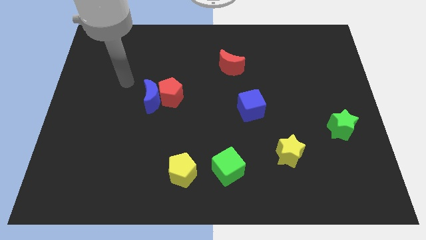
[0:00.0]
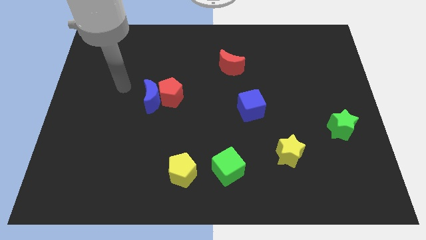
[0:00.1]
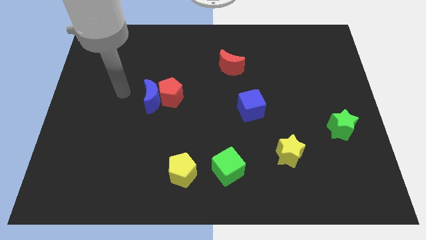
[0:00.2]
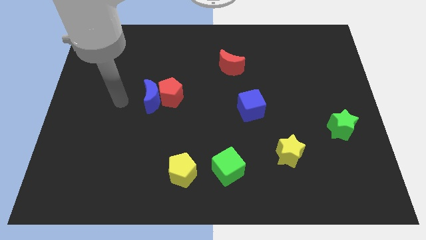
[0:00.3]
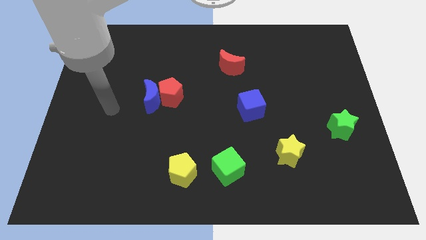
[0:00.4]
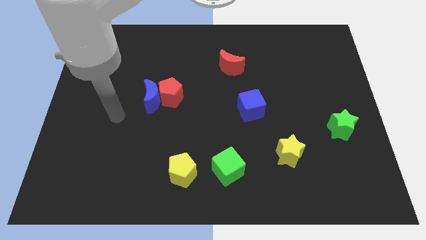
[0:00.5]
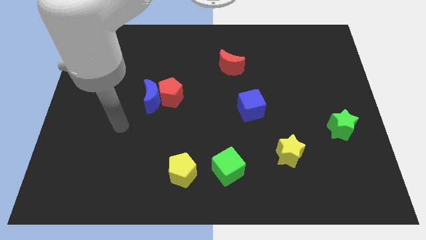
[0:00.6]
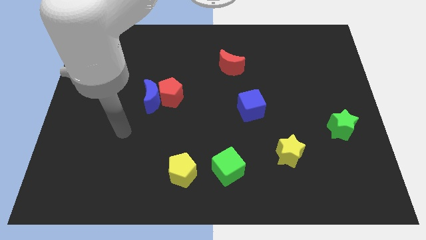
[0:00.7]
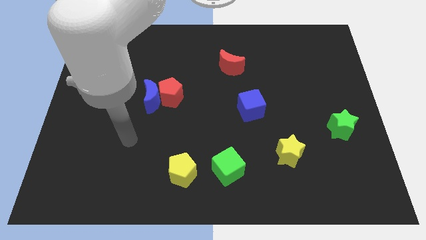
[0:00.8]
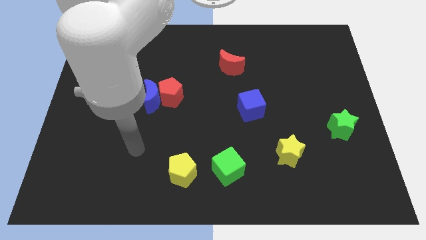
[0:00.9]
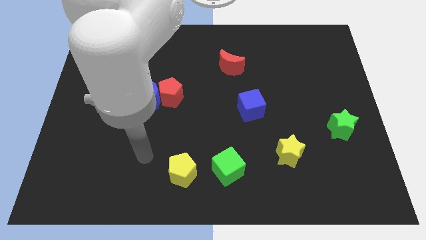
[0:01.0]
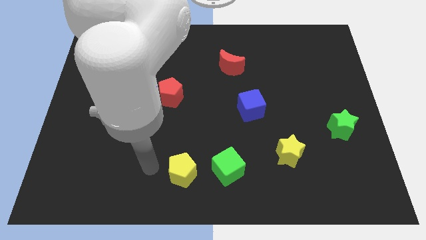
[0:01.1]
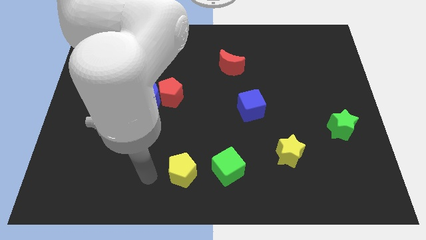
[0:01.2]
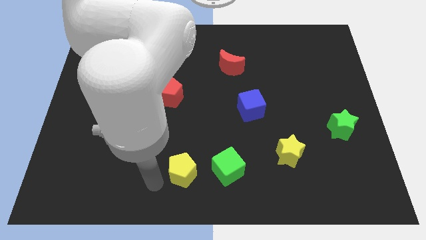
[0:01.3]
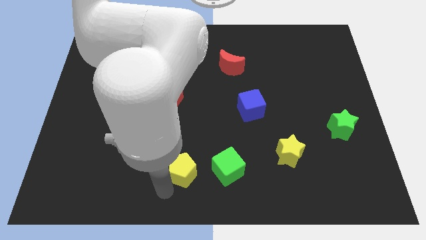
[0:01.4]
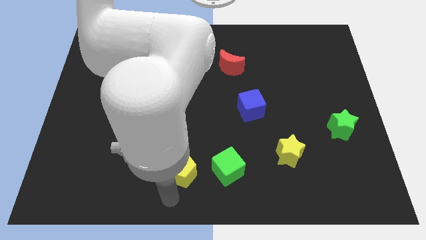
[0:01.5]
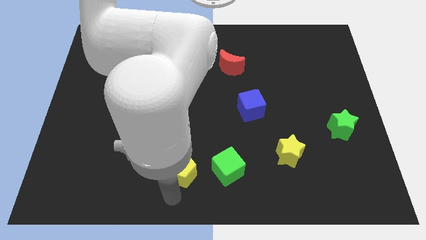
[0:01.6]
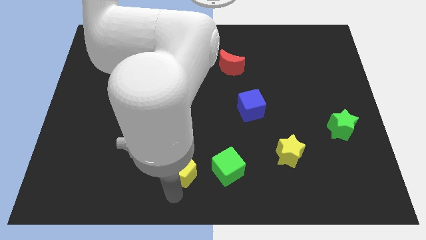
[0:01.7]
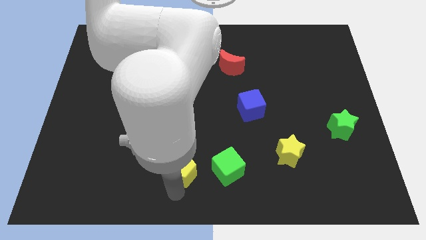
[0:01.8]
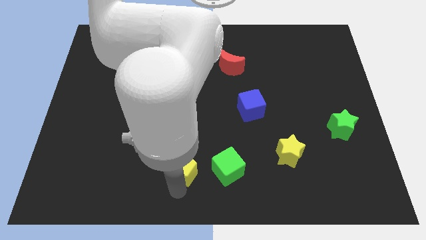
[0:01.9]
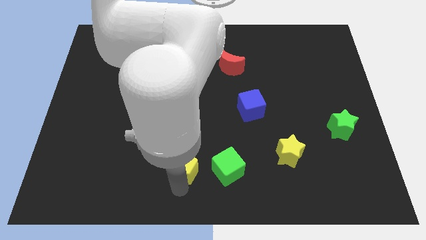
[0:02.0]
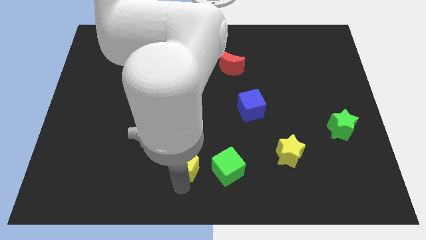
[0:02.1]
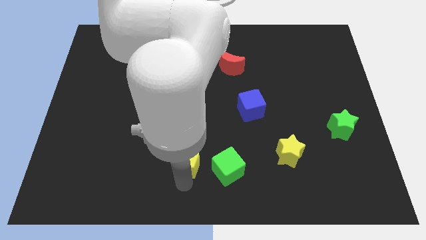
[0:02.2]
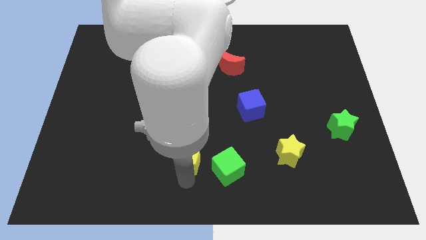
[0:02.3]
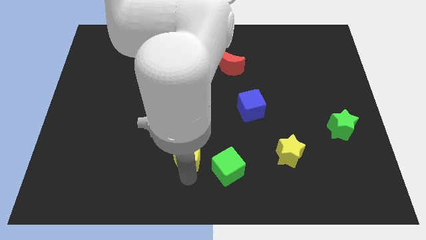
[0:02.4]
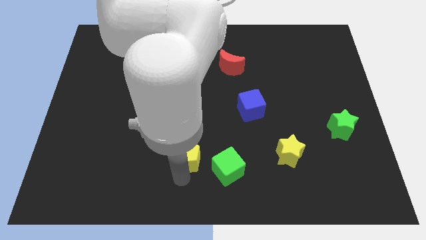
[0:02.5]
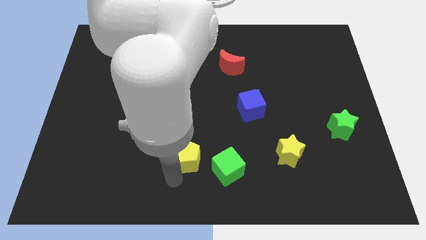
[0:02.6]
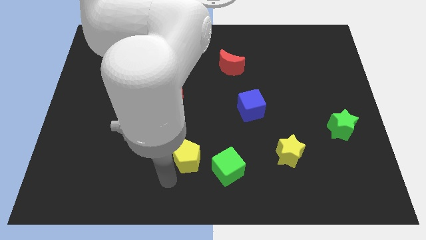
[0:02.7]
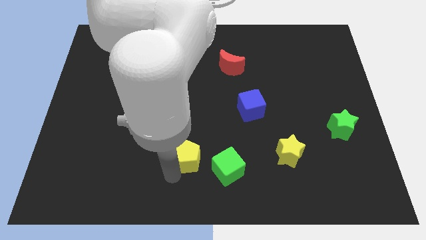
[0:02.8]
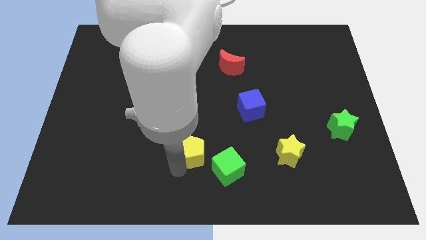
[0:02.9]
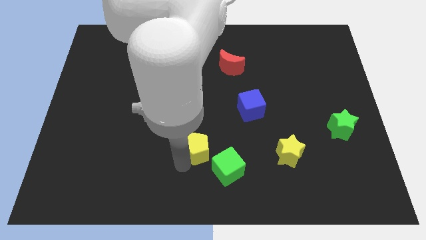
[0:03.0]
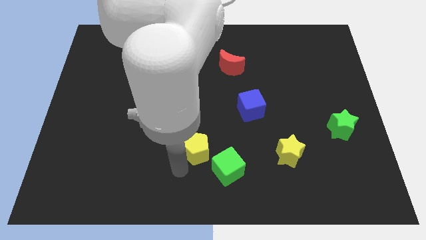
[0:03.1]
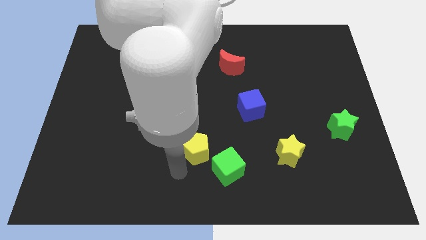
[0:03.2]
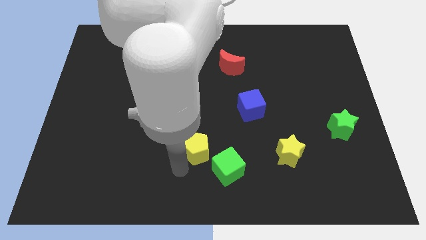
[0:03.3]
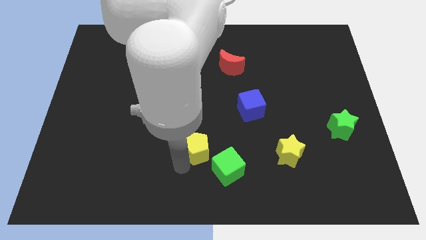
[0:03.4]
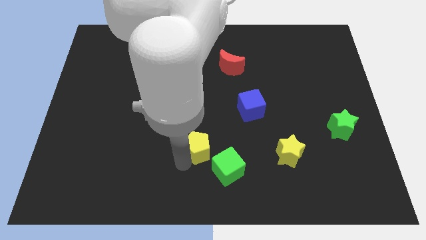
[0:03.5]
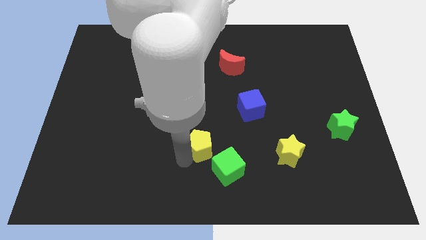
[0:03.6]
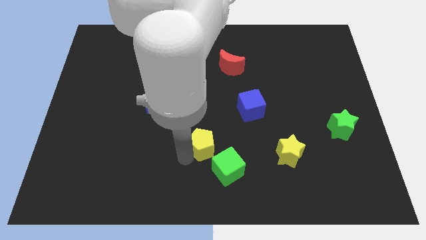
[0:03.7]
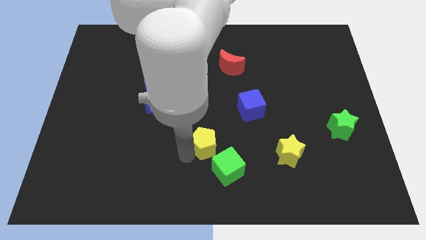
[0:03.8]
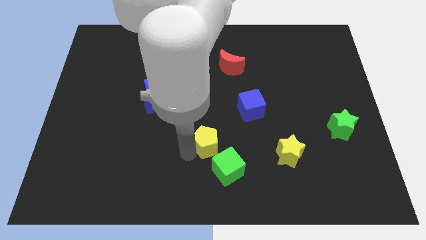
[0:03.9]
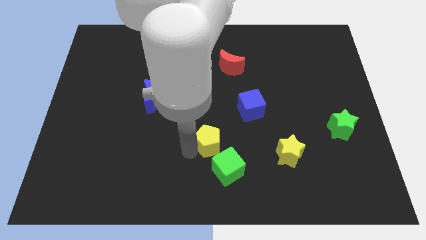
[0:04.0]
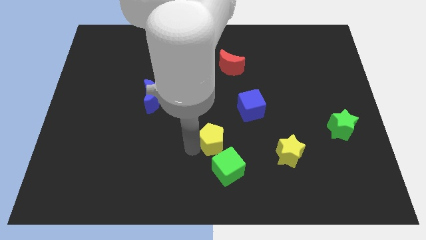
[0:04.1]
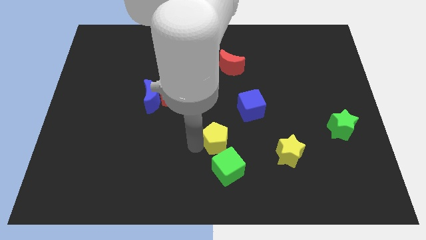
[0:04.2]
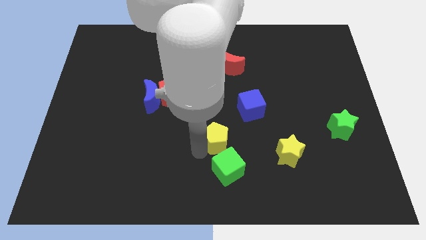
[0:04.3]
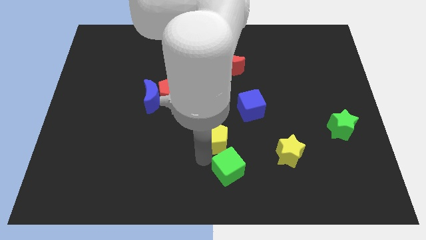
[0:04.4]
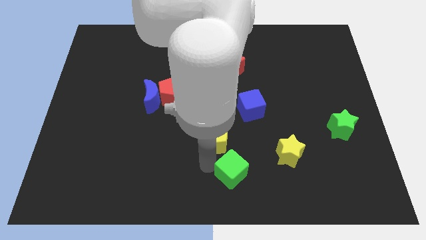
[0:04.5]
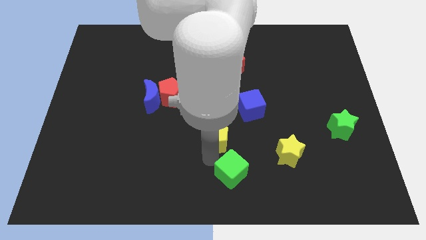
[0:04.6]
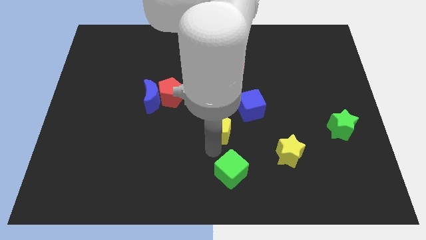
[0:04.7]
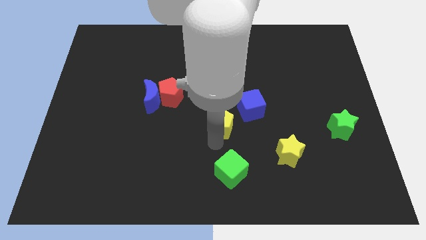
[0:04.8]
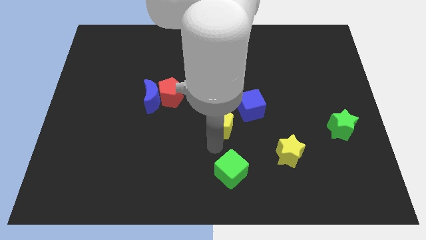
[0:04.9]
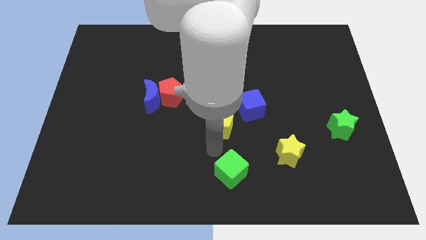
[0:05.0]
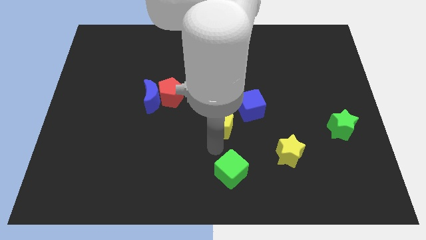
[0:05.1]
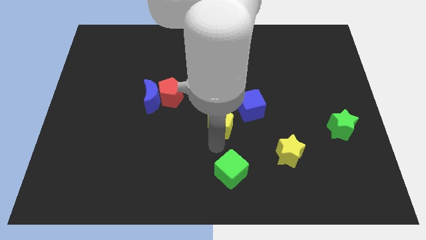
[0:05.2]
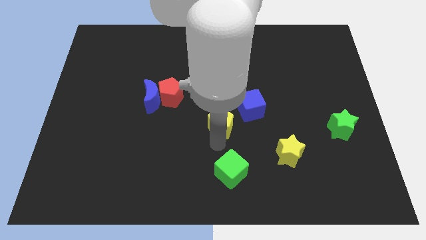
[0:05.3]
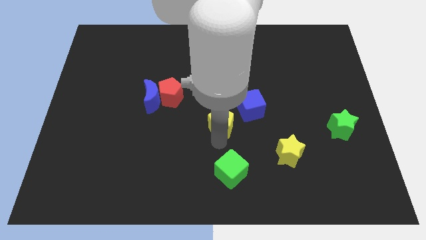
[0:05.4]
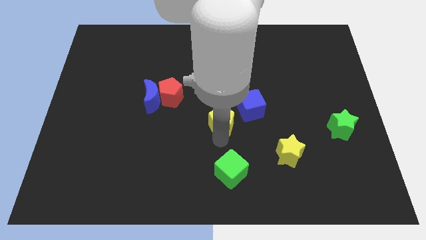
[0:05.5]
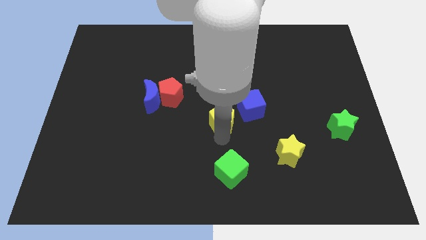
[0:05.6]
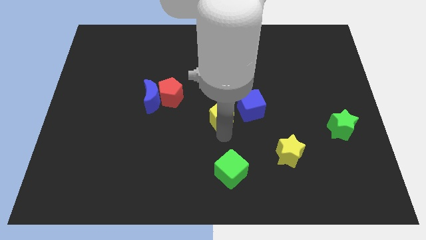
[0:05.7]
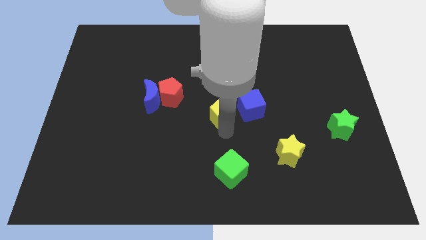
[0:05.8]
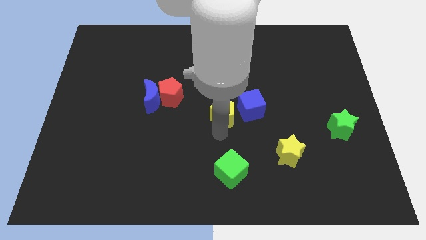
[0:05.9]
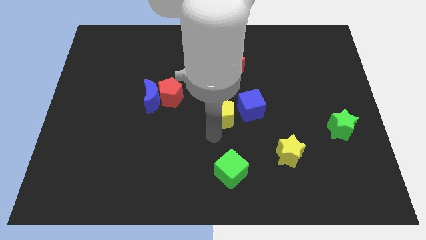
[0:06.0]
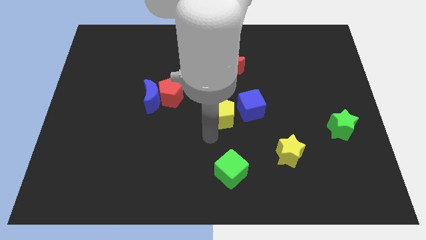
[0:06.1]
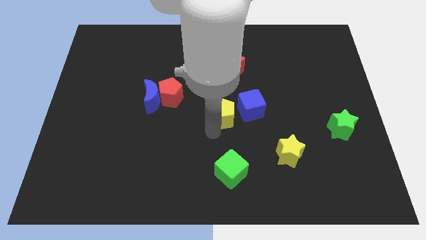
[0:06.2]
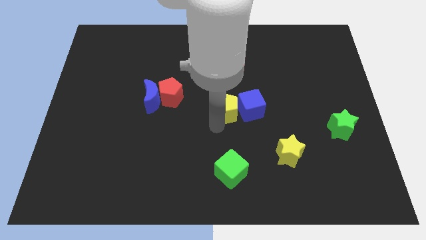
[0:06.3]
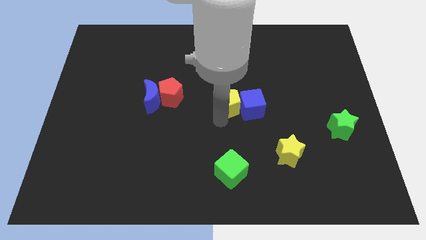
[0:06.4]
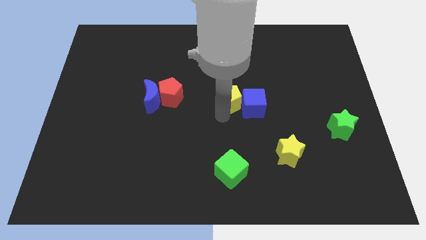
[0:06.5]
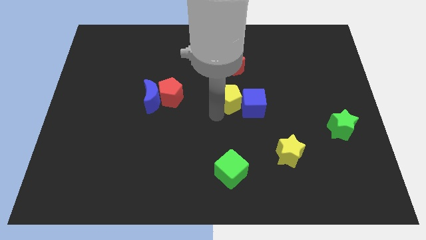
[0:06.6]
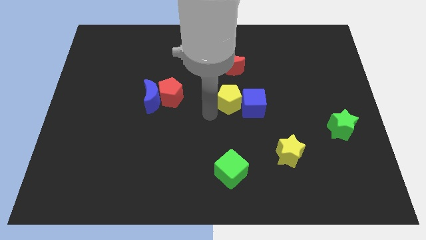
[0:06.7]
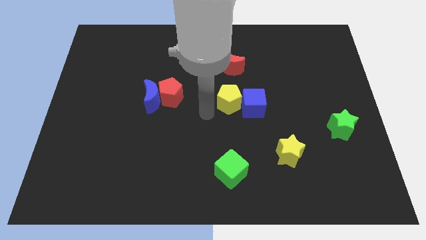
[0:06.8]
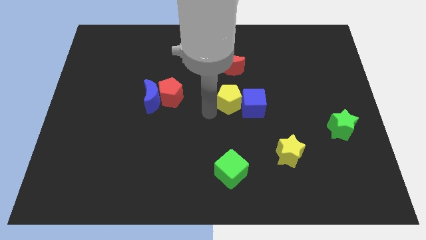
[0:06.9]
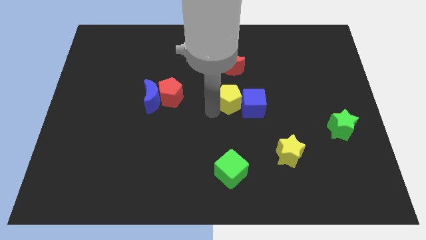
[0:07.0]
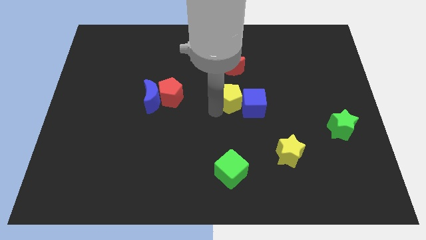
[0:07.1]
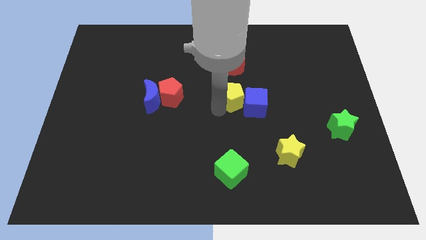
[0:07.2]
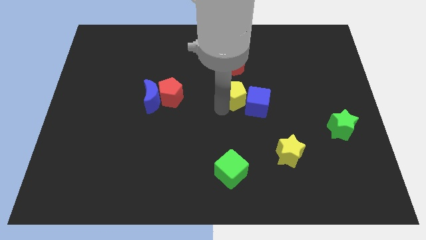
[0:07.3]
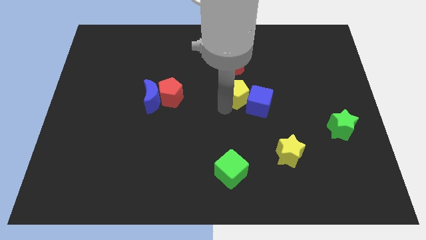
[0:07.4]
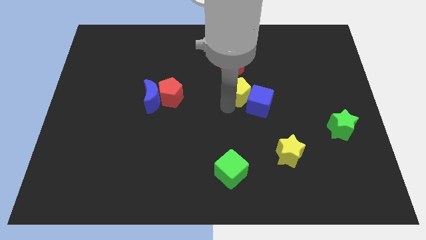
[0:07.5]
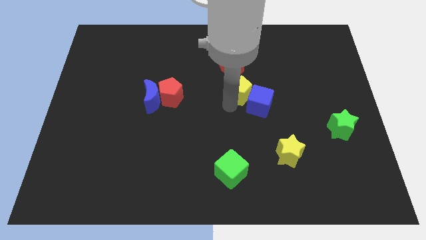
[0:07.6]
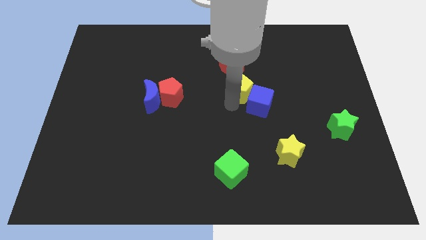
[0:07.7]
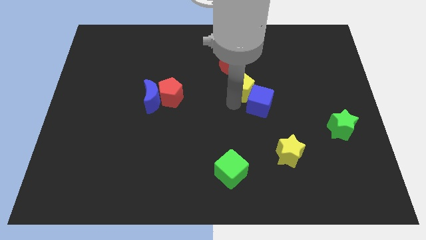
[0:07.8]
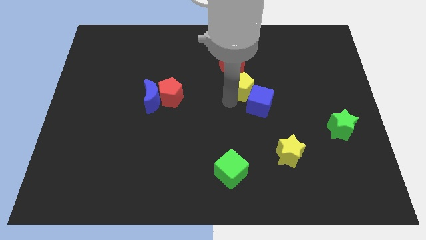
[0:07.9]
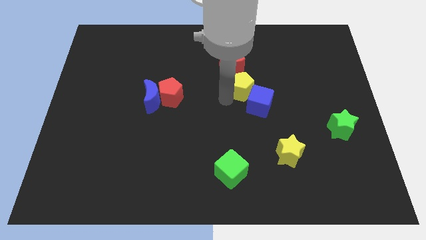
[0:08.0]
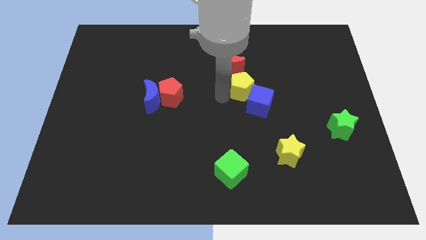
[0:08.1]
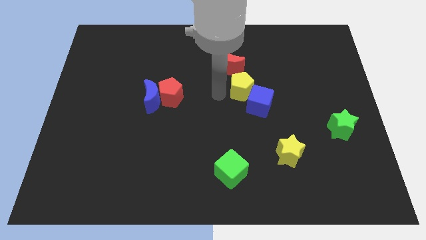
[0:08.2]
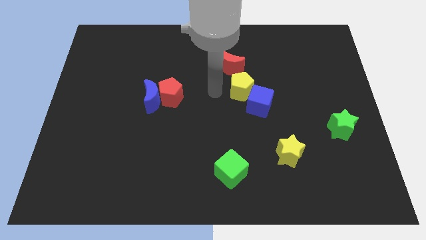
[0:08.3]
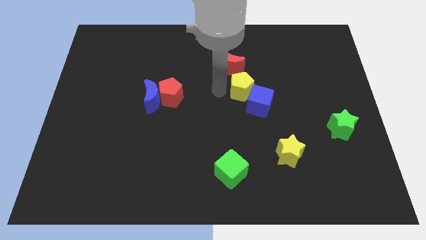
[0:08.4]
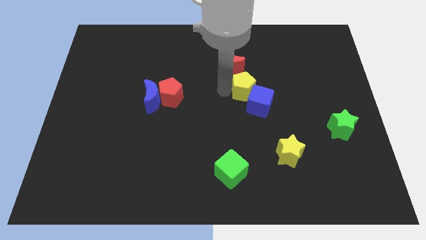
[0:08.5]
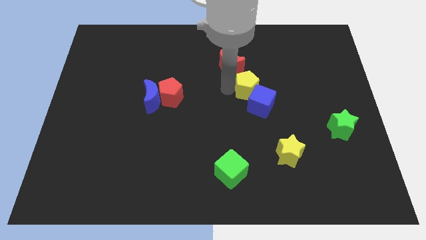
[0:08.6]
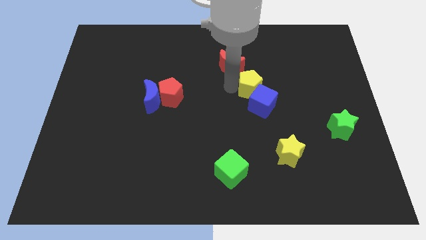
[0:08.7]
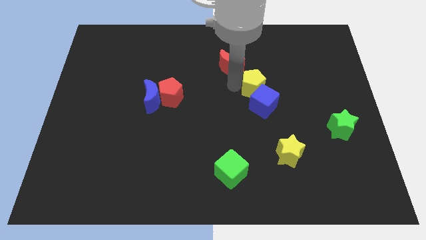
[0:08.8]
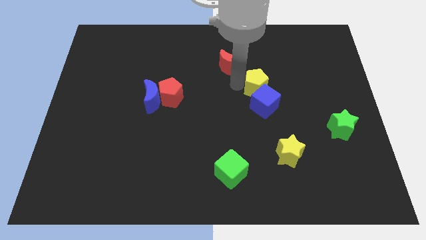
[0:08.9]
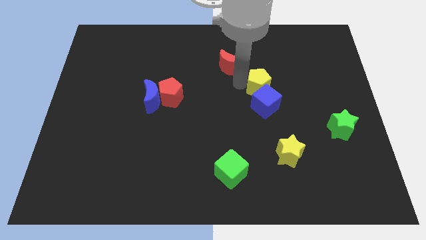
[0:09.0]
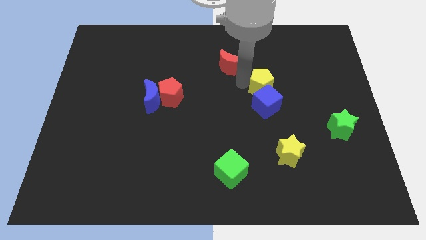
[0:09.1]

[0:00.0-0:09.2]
move the yellow pentagon diagonally up and to the right of the blue cube
